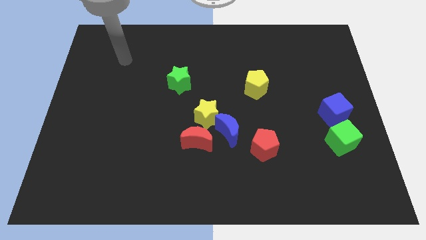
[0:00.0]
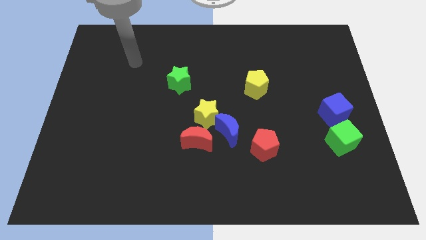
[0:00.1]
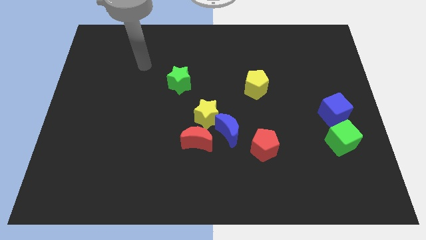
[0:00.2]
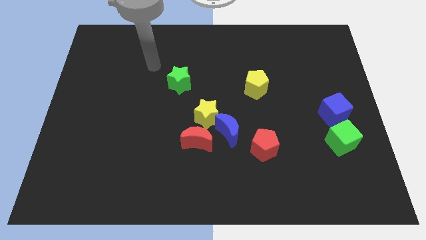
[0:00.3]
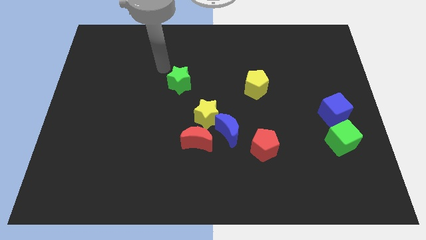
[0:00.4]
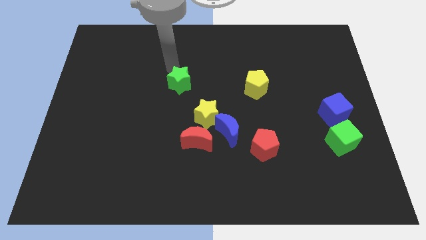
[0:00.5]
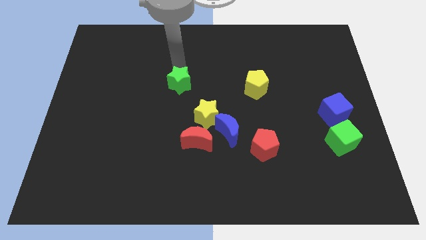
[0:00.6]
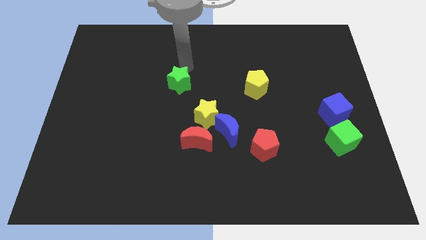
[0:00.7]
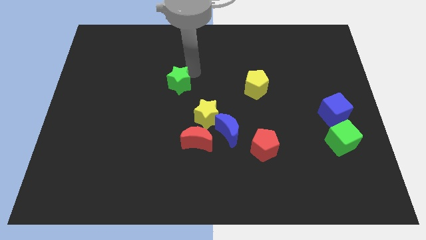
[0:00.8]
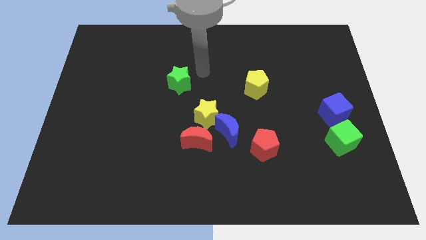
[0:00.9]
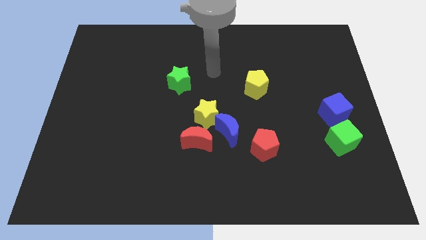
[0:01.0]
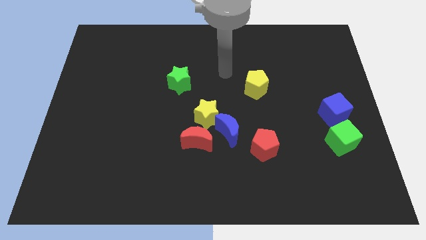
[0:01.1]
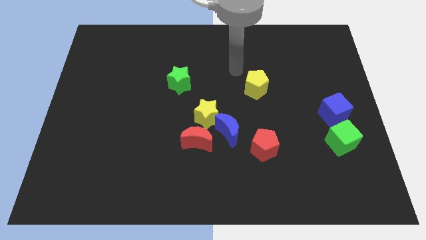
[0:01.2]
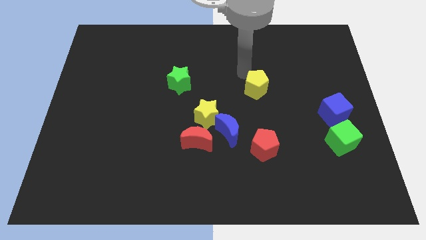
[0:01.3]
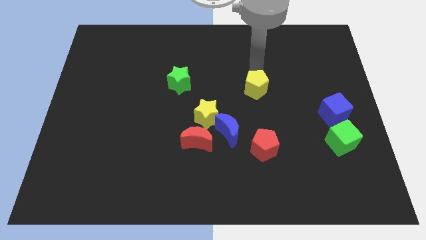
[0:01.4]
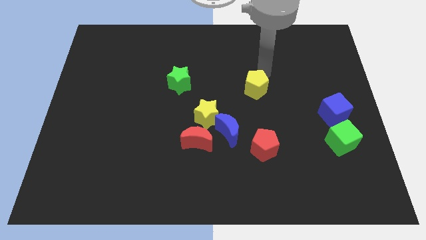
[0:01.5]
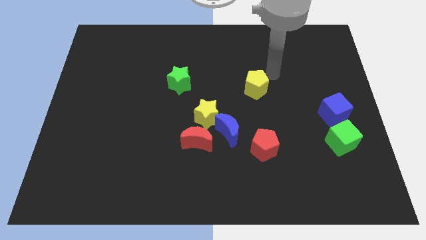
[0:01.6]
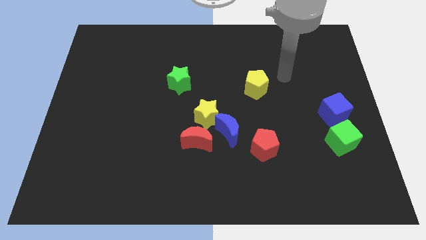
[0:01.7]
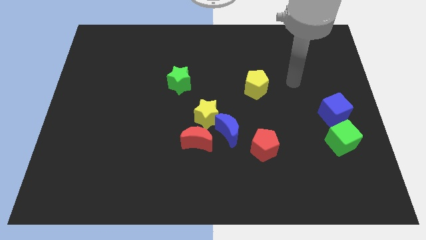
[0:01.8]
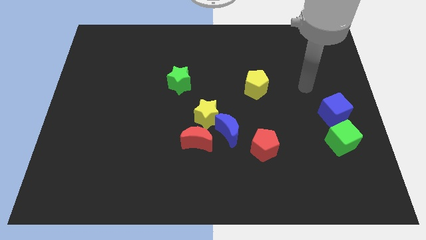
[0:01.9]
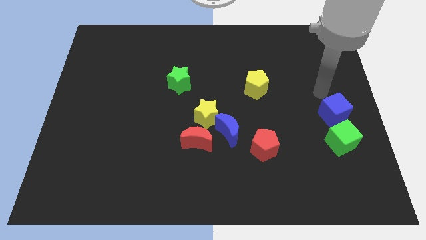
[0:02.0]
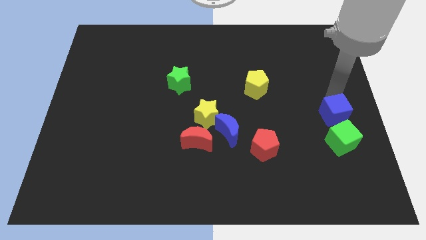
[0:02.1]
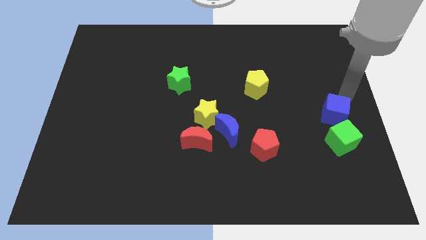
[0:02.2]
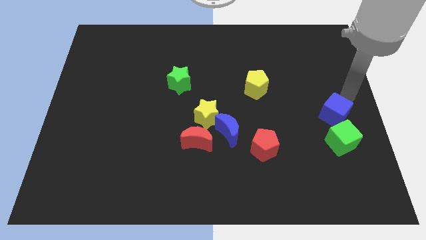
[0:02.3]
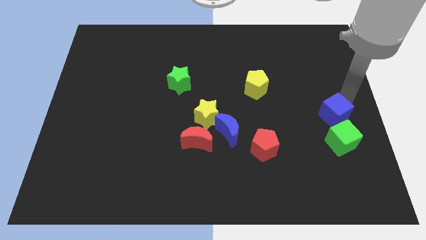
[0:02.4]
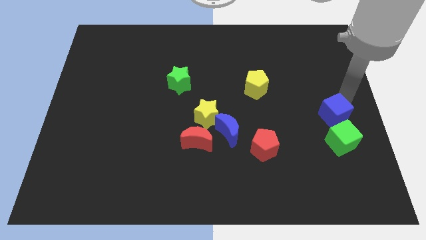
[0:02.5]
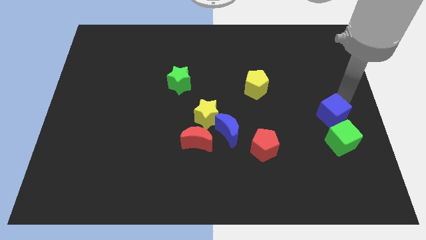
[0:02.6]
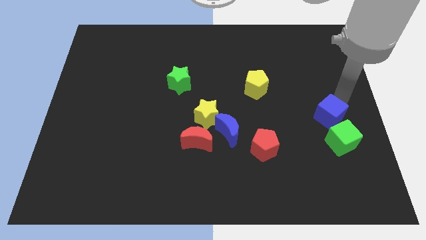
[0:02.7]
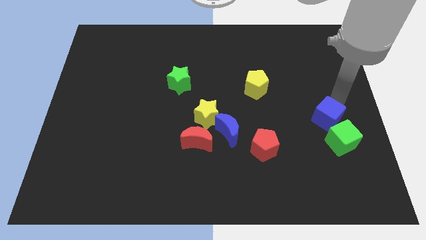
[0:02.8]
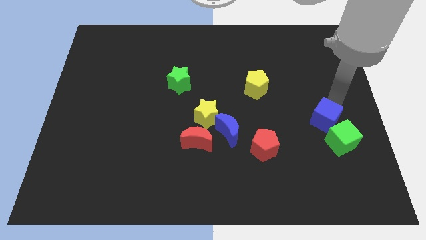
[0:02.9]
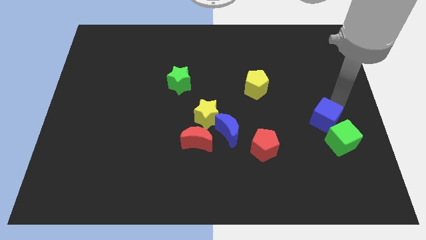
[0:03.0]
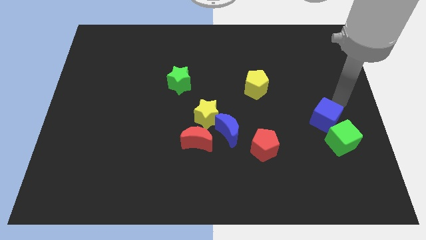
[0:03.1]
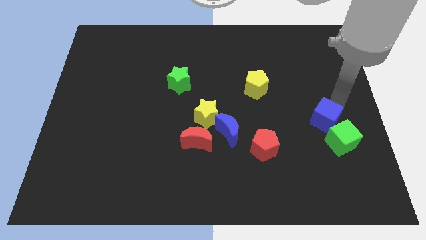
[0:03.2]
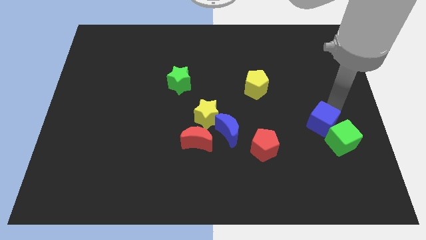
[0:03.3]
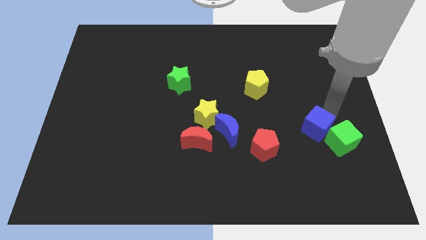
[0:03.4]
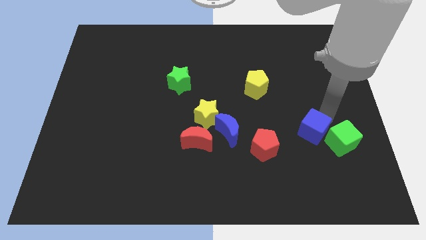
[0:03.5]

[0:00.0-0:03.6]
push the blue cube somewhat down and then to the left

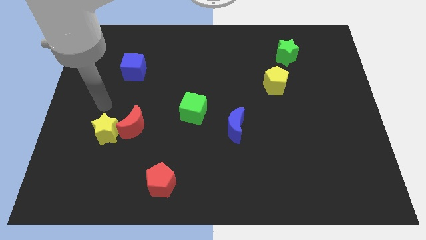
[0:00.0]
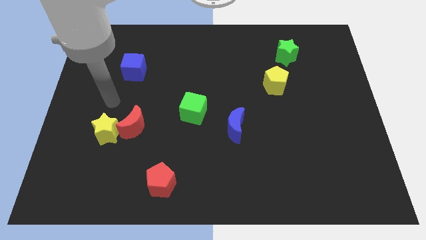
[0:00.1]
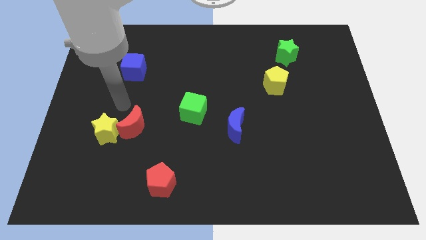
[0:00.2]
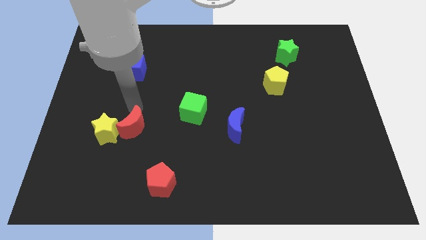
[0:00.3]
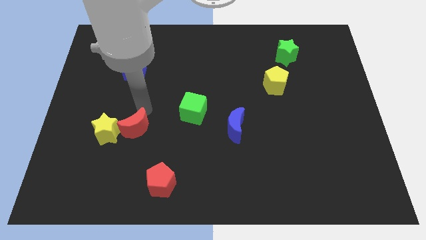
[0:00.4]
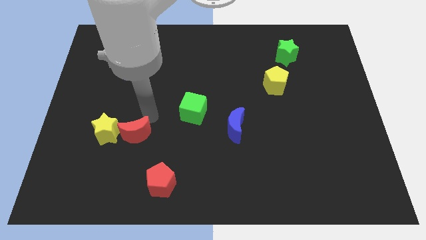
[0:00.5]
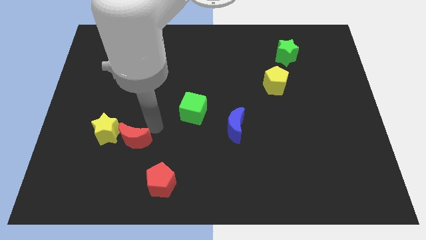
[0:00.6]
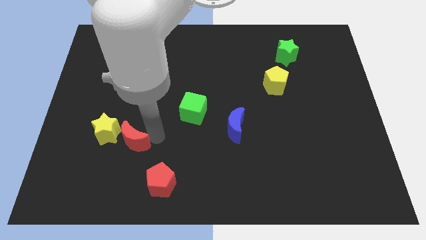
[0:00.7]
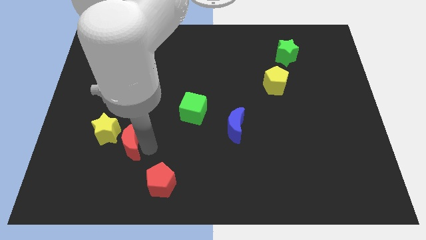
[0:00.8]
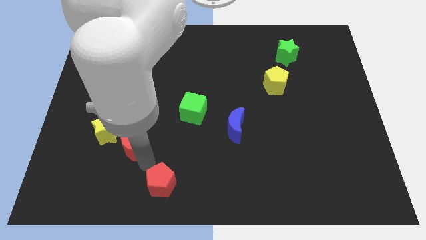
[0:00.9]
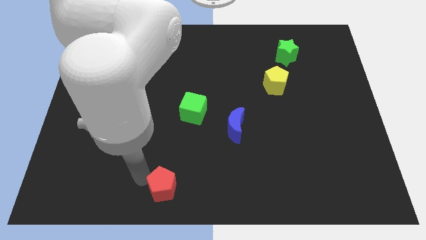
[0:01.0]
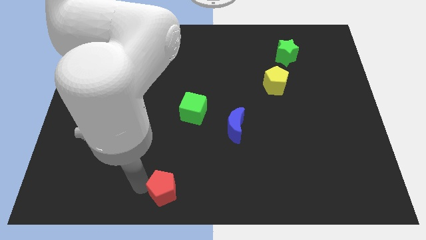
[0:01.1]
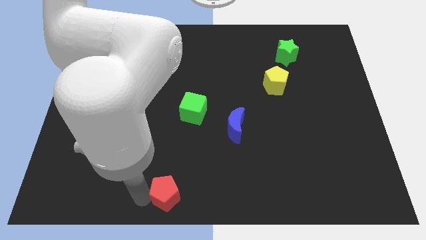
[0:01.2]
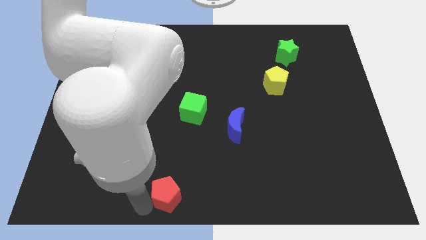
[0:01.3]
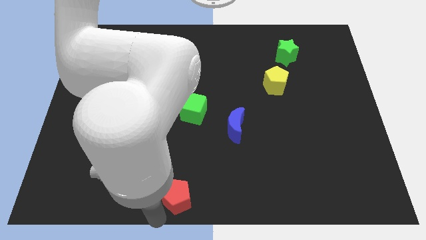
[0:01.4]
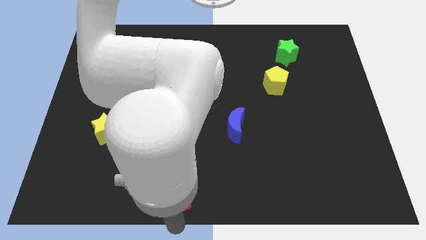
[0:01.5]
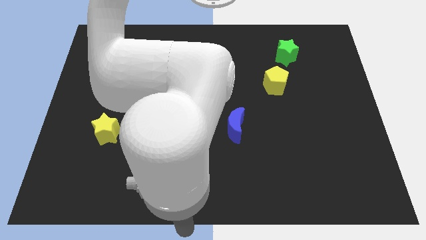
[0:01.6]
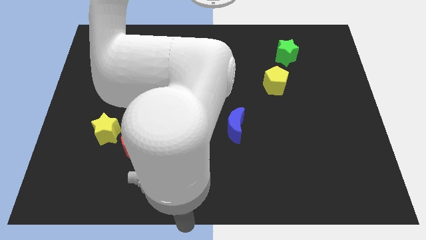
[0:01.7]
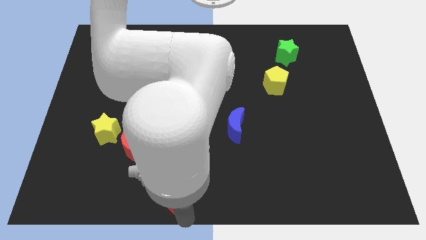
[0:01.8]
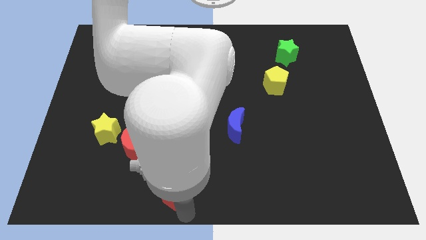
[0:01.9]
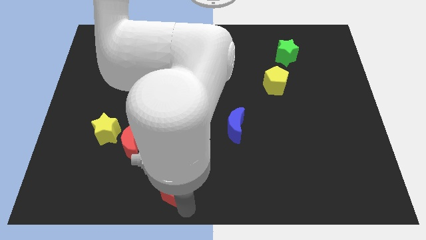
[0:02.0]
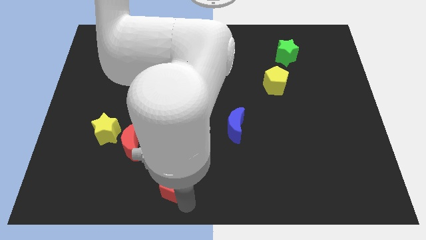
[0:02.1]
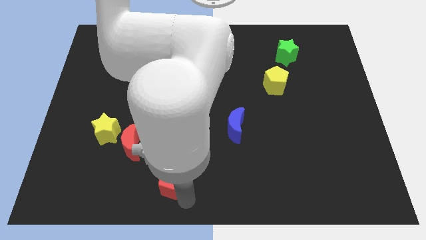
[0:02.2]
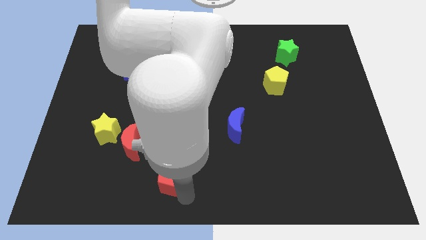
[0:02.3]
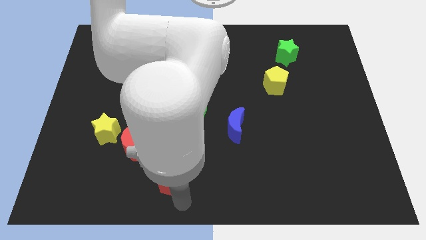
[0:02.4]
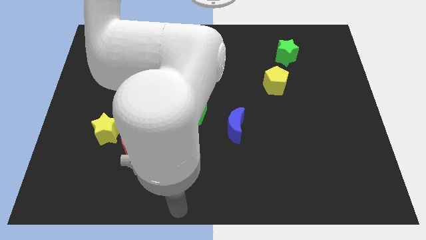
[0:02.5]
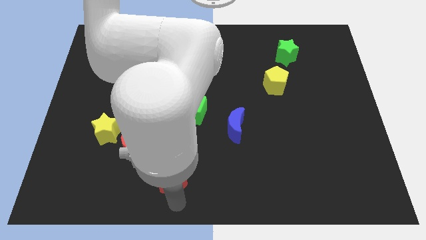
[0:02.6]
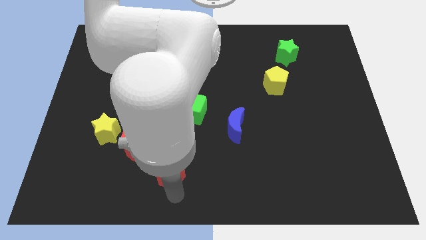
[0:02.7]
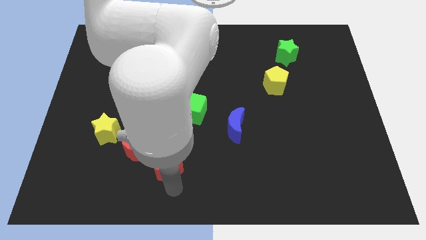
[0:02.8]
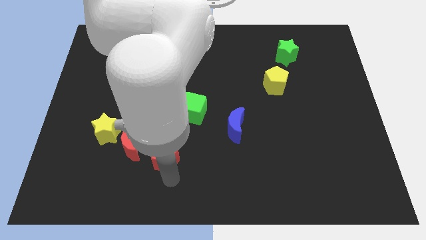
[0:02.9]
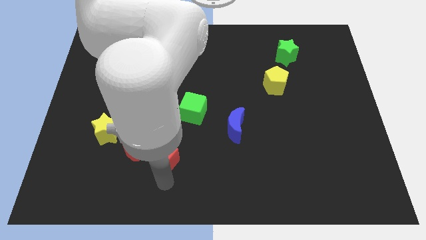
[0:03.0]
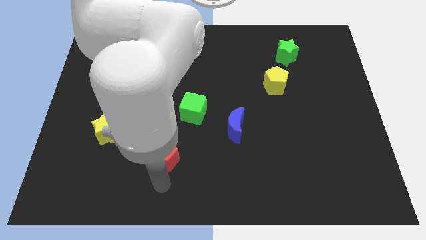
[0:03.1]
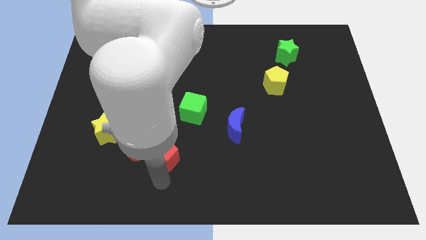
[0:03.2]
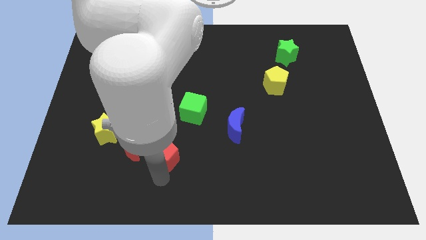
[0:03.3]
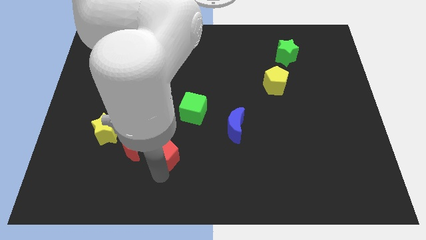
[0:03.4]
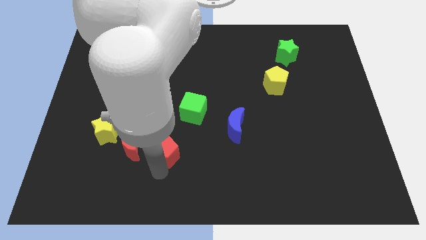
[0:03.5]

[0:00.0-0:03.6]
slightly slide the red pentagon up

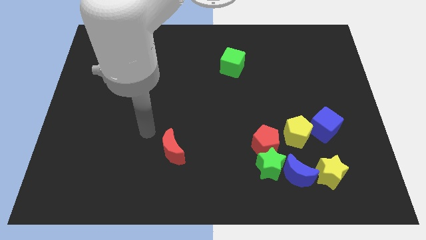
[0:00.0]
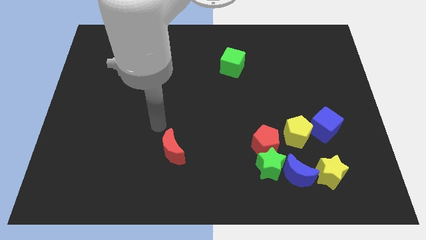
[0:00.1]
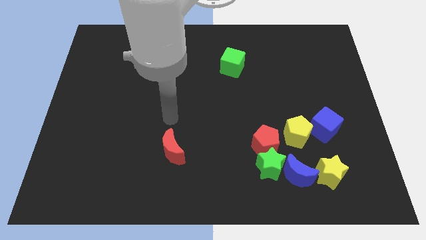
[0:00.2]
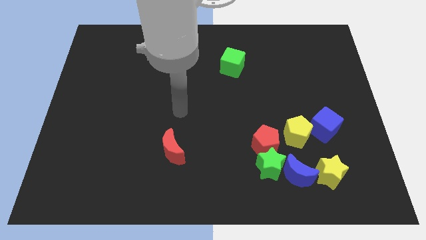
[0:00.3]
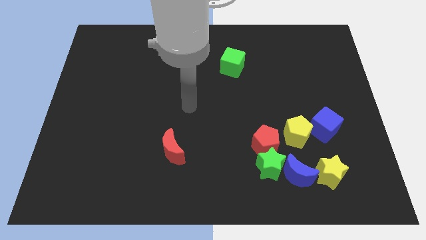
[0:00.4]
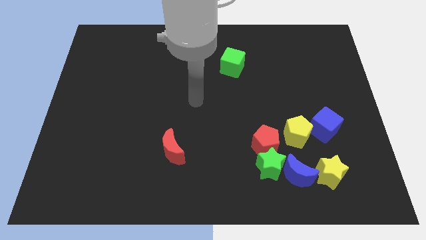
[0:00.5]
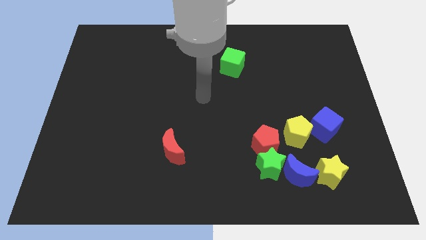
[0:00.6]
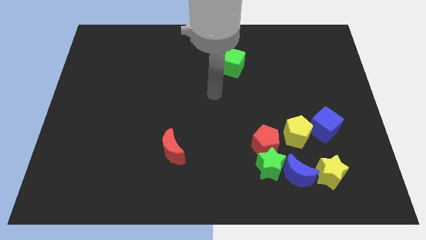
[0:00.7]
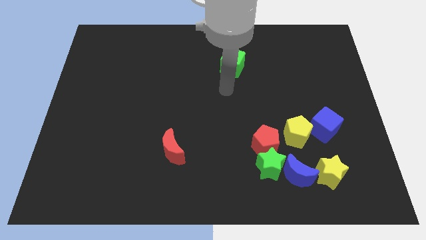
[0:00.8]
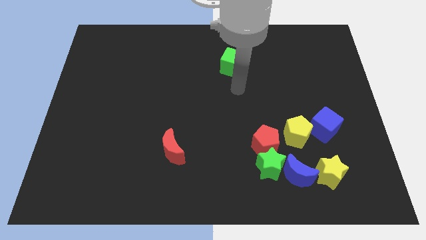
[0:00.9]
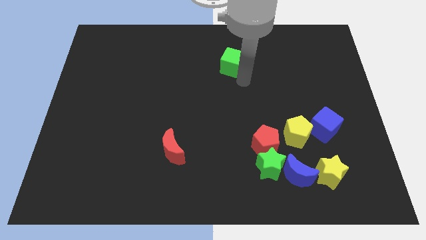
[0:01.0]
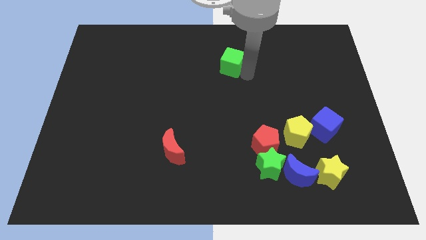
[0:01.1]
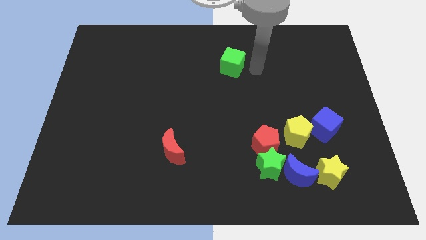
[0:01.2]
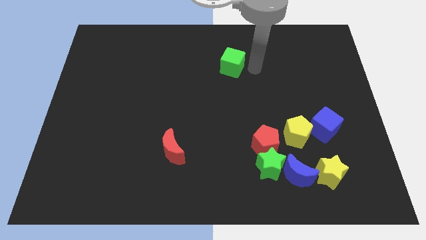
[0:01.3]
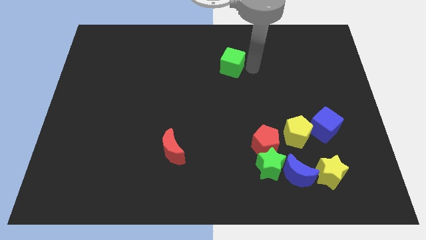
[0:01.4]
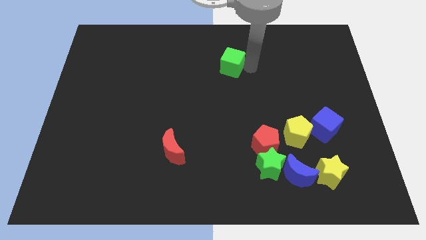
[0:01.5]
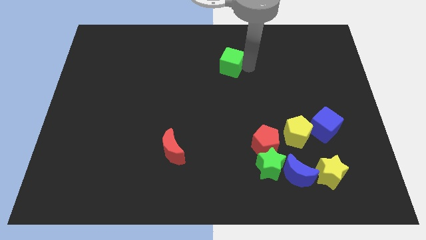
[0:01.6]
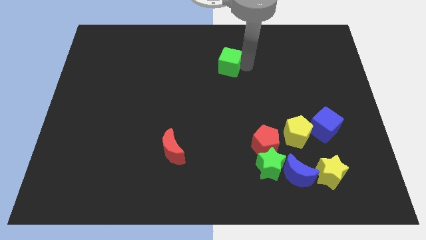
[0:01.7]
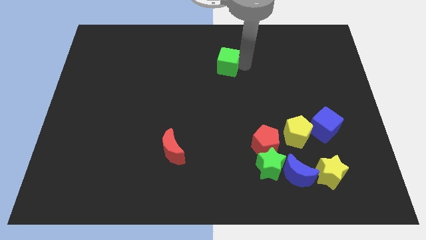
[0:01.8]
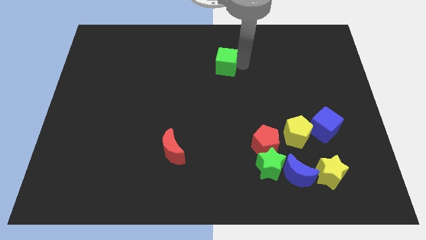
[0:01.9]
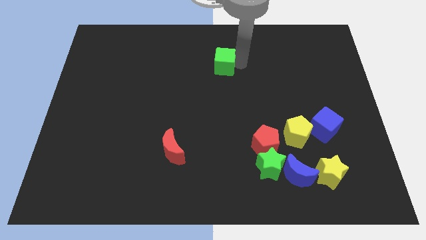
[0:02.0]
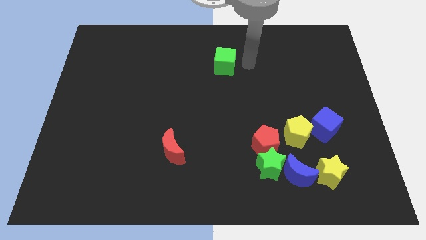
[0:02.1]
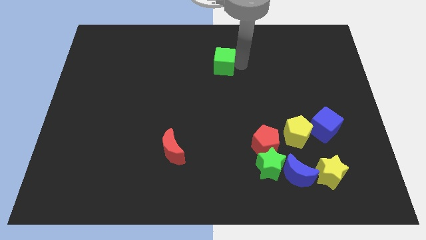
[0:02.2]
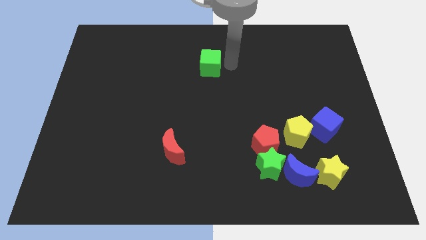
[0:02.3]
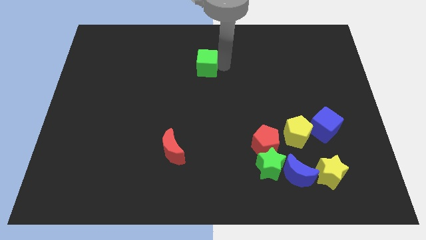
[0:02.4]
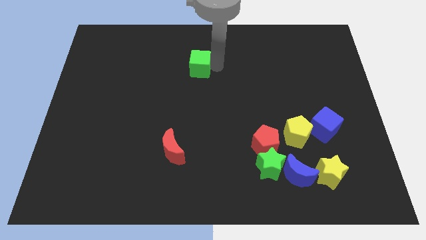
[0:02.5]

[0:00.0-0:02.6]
slide the green cube left somewhat
